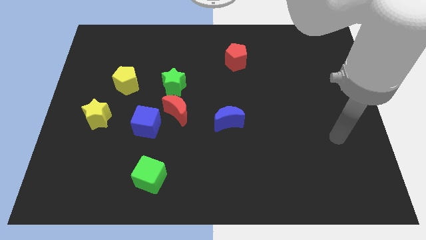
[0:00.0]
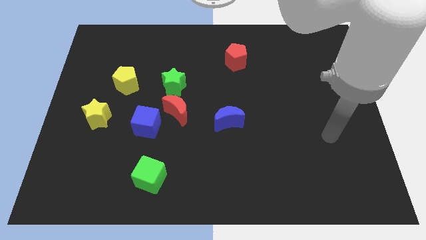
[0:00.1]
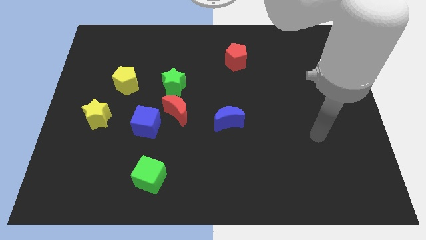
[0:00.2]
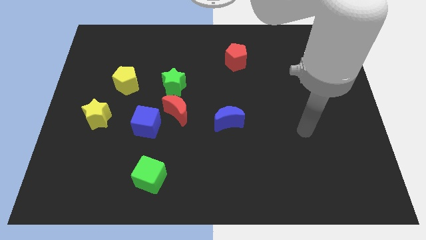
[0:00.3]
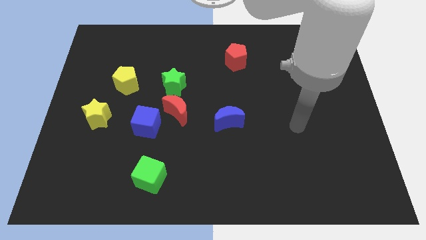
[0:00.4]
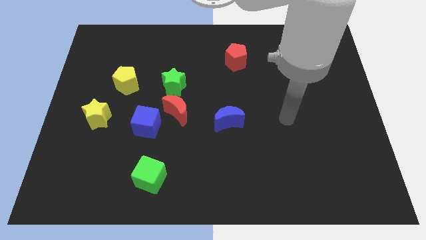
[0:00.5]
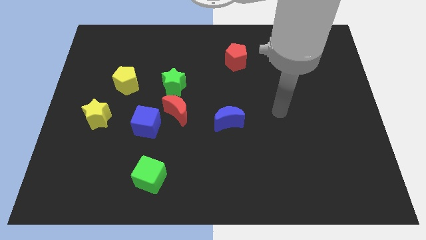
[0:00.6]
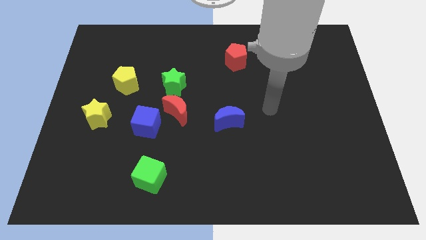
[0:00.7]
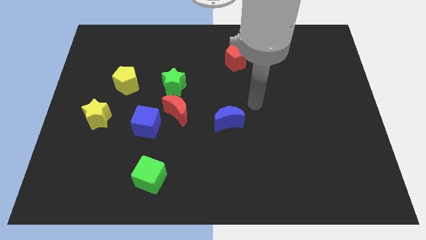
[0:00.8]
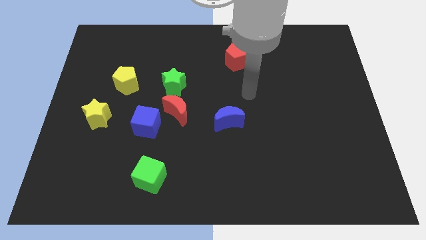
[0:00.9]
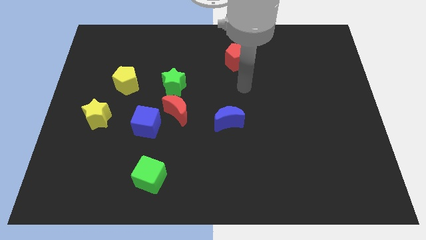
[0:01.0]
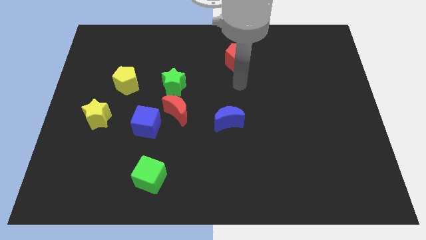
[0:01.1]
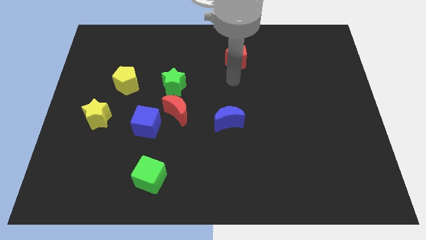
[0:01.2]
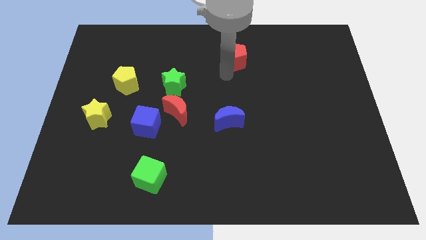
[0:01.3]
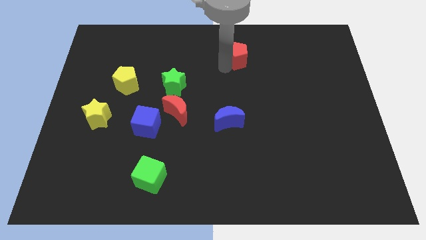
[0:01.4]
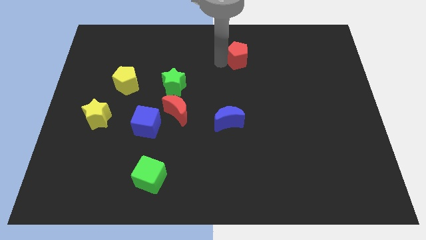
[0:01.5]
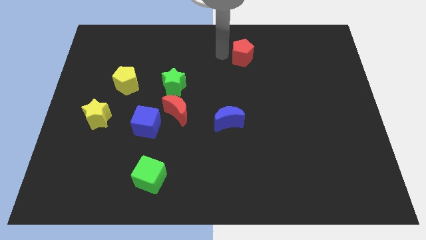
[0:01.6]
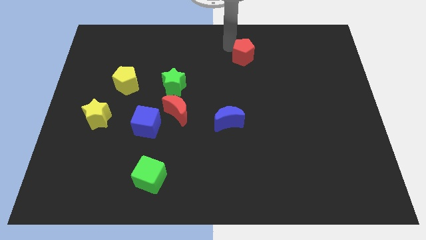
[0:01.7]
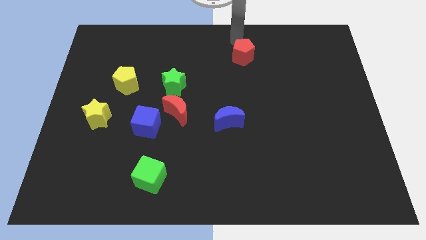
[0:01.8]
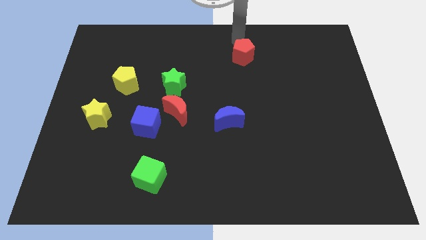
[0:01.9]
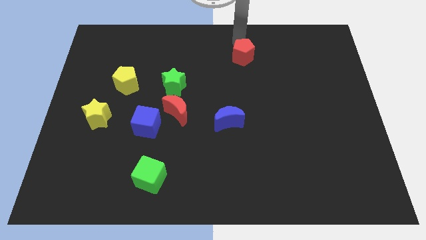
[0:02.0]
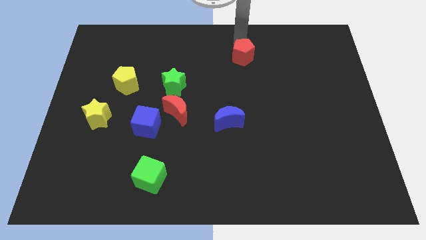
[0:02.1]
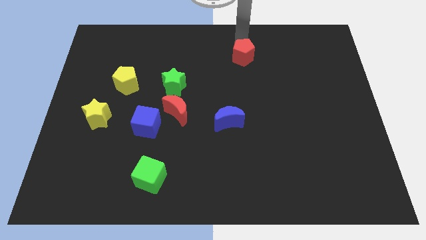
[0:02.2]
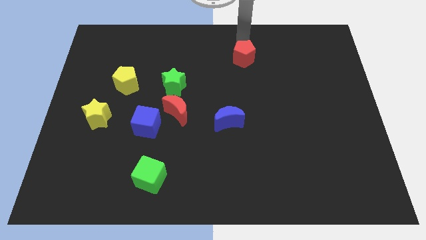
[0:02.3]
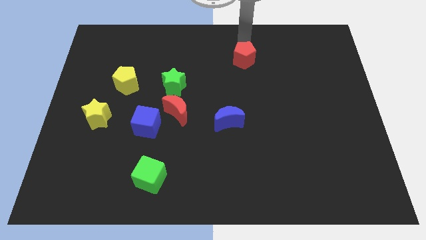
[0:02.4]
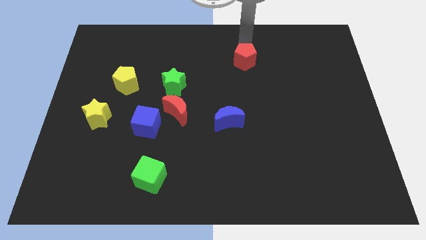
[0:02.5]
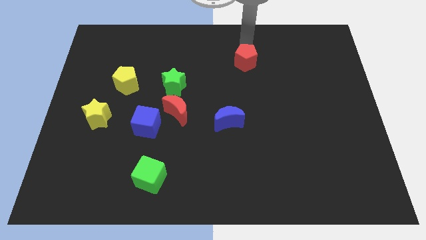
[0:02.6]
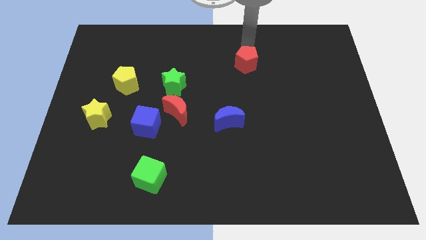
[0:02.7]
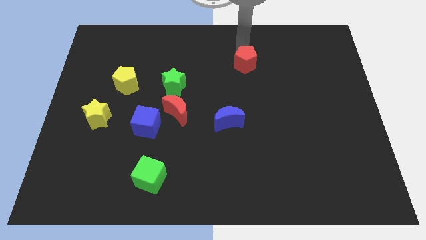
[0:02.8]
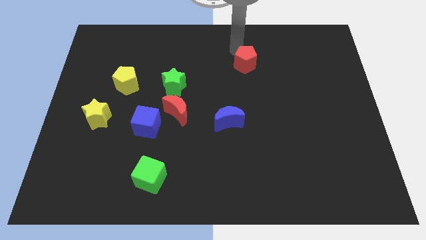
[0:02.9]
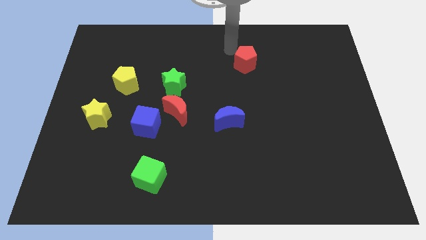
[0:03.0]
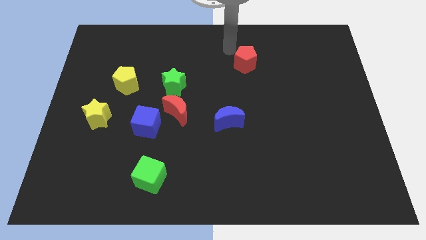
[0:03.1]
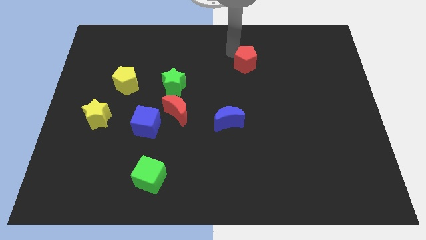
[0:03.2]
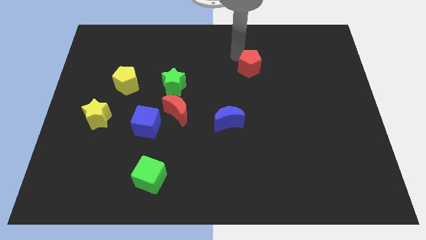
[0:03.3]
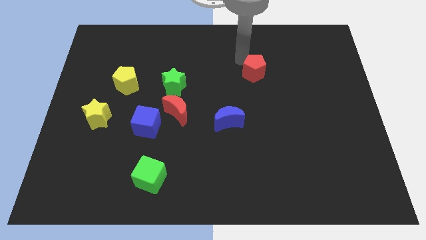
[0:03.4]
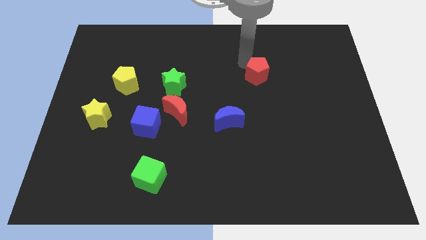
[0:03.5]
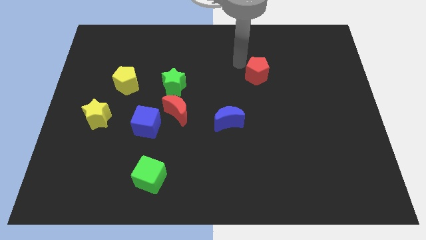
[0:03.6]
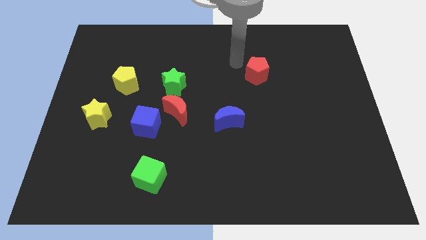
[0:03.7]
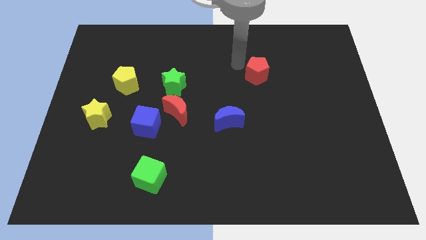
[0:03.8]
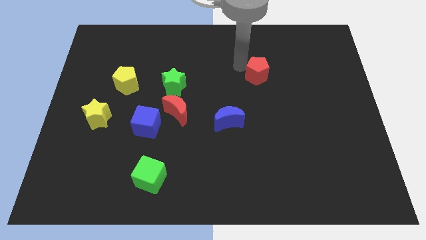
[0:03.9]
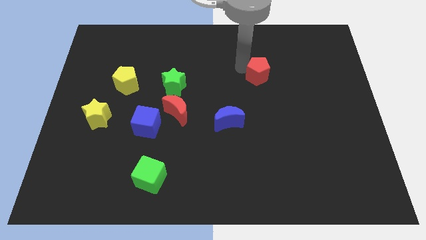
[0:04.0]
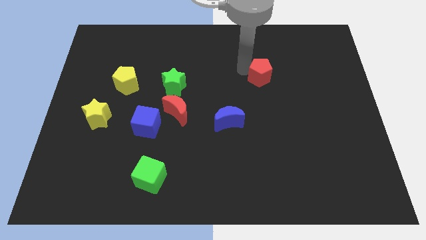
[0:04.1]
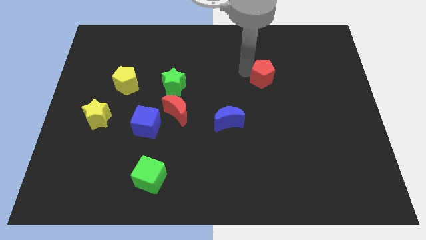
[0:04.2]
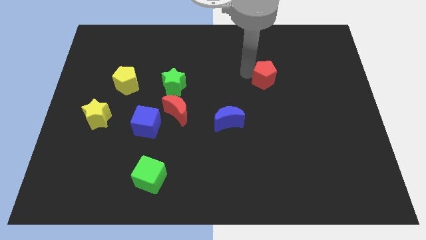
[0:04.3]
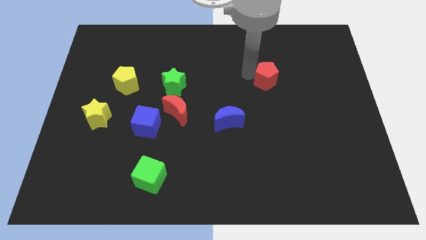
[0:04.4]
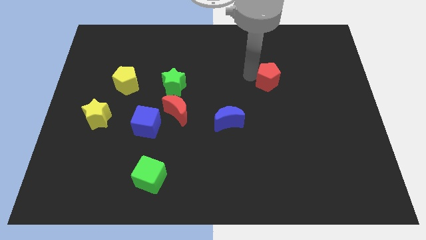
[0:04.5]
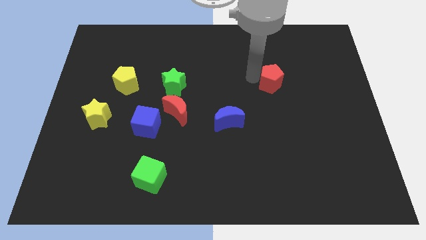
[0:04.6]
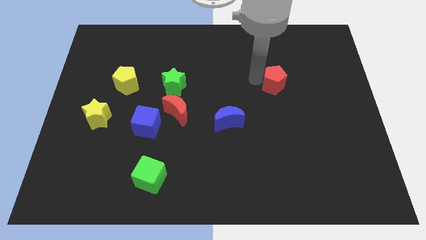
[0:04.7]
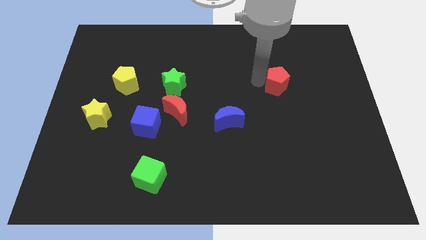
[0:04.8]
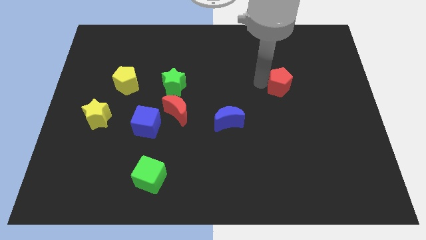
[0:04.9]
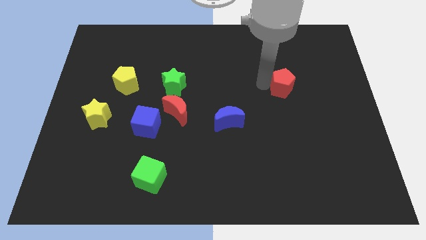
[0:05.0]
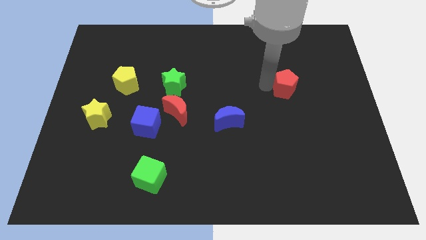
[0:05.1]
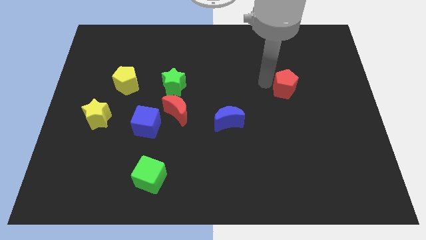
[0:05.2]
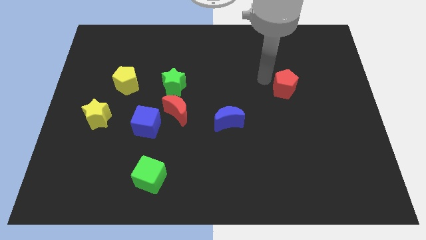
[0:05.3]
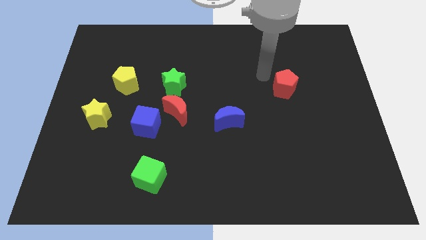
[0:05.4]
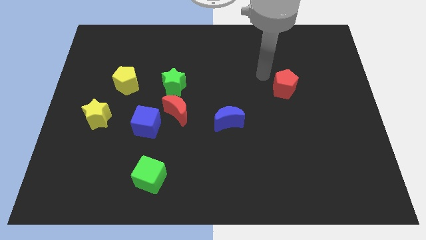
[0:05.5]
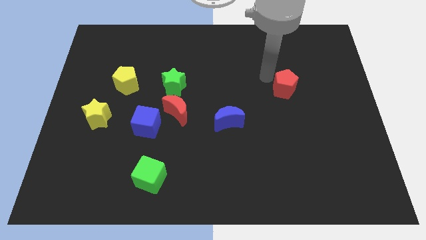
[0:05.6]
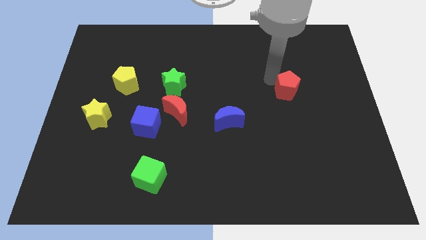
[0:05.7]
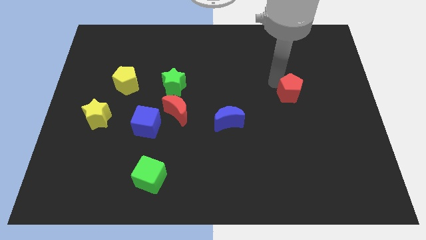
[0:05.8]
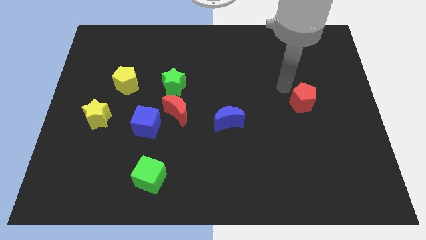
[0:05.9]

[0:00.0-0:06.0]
move the red pentagon down and right

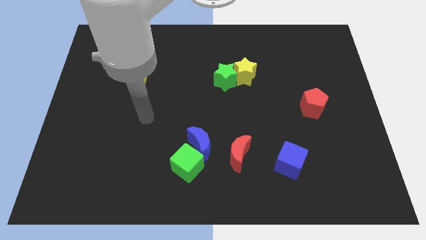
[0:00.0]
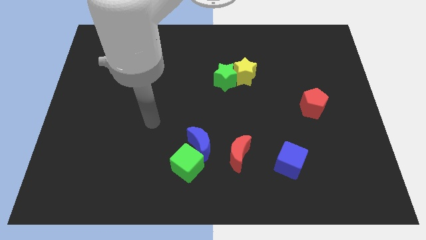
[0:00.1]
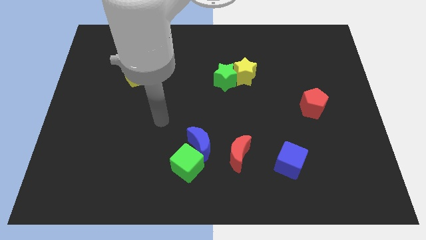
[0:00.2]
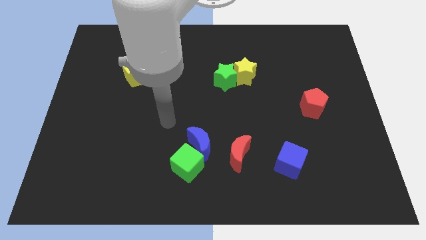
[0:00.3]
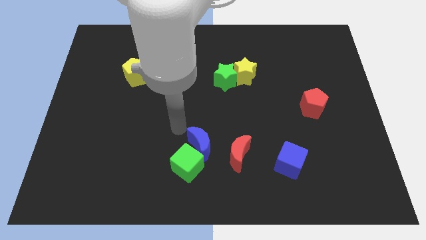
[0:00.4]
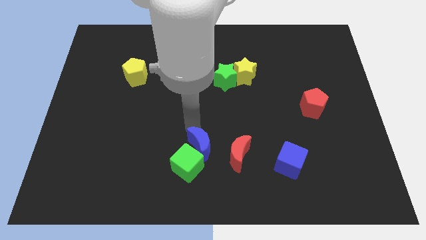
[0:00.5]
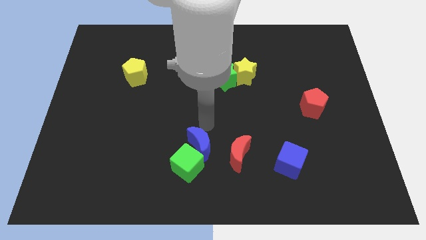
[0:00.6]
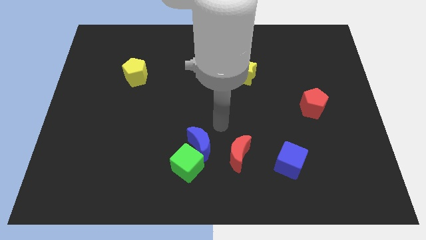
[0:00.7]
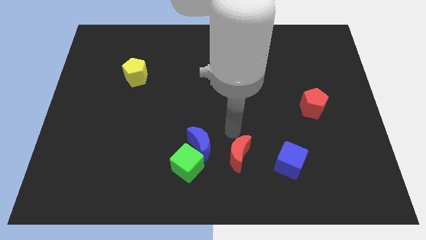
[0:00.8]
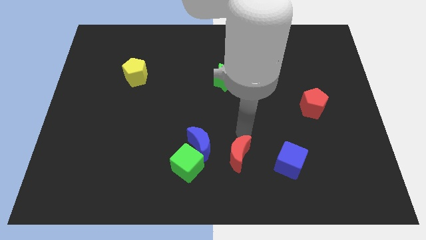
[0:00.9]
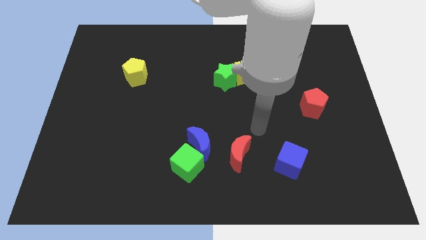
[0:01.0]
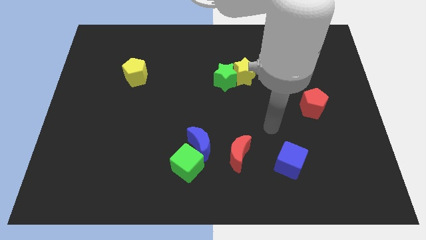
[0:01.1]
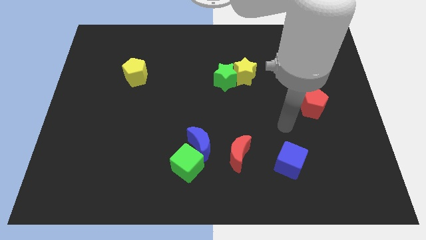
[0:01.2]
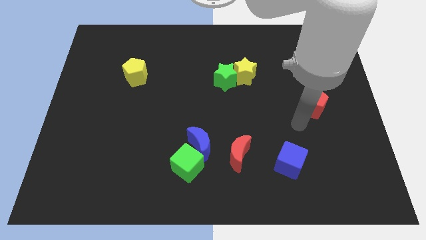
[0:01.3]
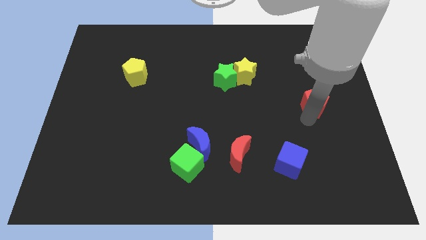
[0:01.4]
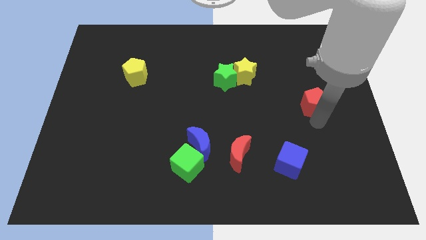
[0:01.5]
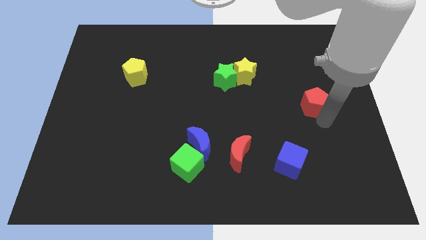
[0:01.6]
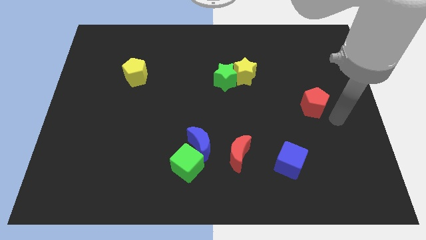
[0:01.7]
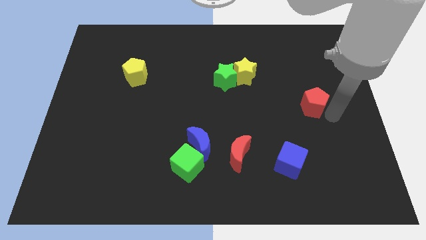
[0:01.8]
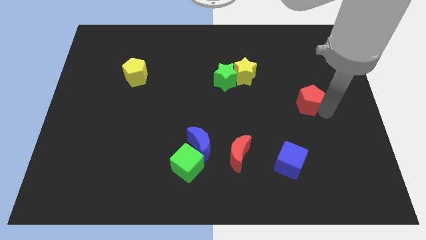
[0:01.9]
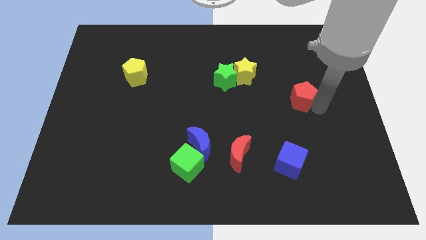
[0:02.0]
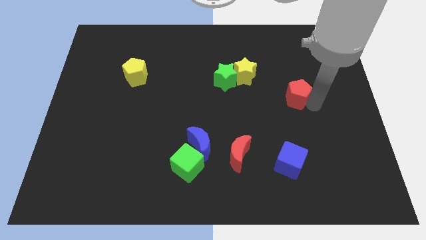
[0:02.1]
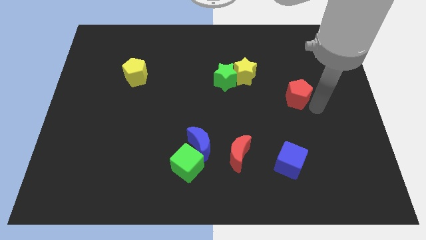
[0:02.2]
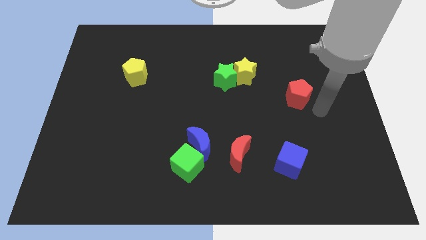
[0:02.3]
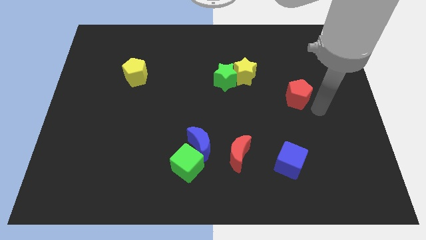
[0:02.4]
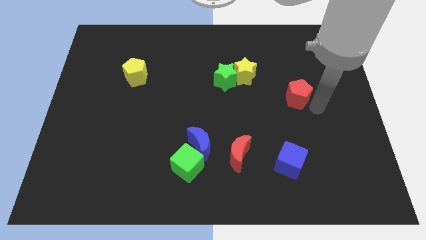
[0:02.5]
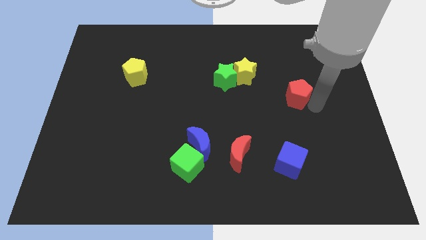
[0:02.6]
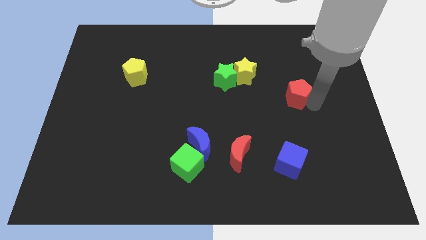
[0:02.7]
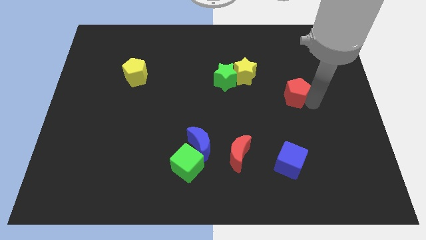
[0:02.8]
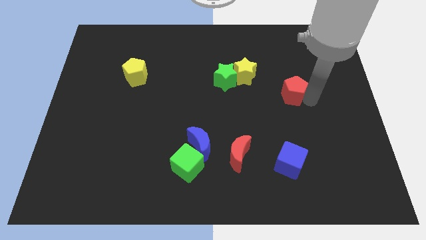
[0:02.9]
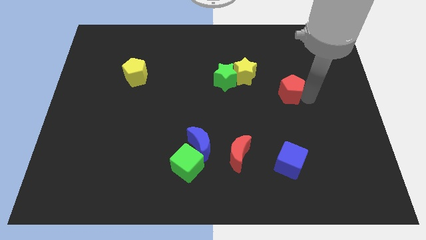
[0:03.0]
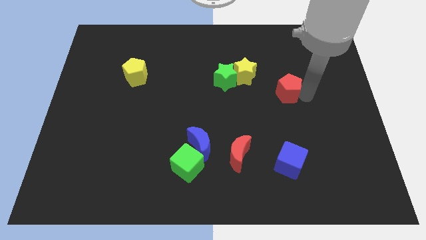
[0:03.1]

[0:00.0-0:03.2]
slightly push the red pentagon upwards and left diagonally
